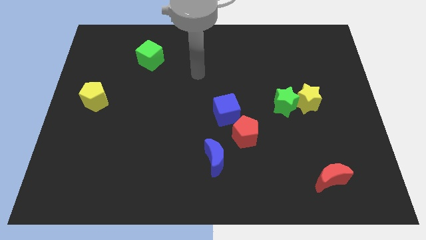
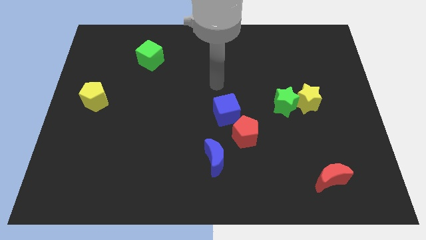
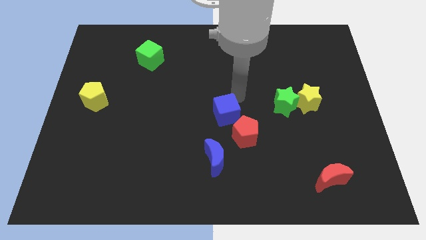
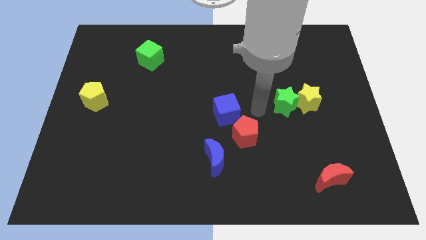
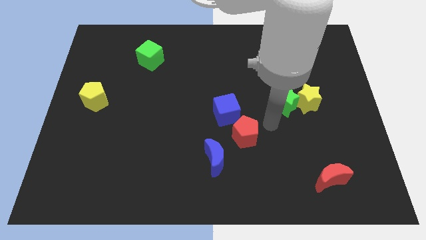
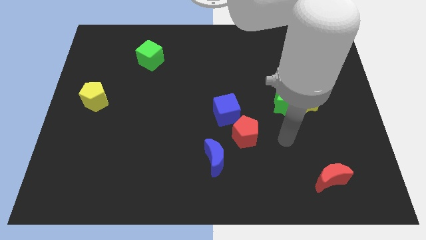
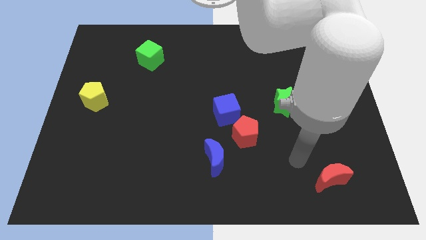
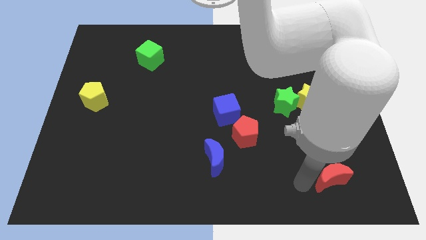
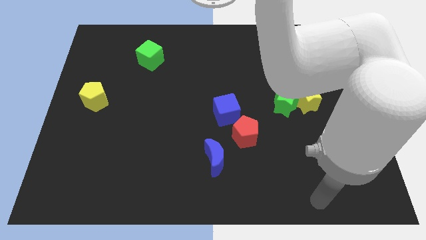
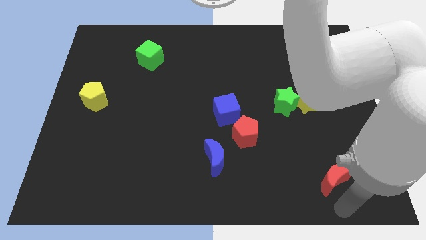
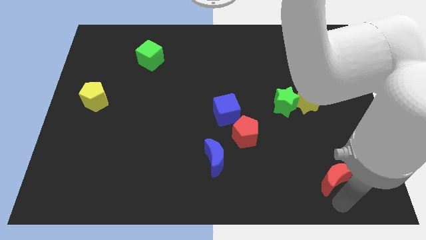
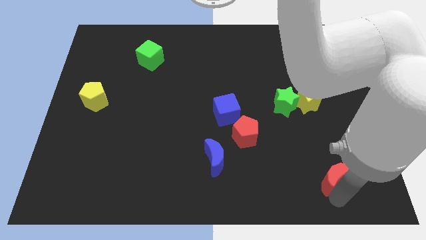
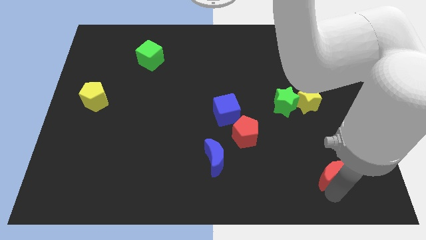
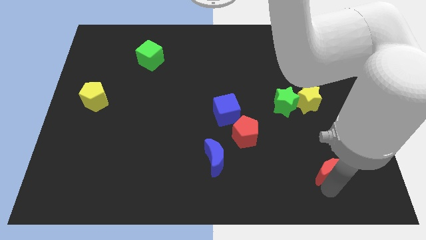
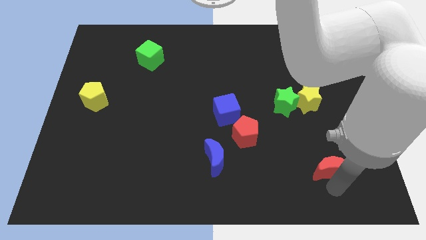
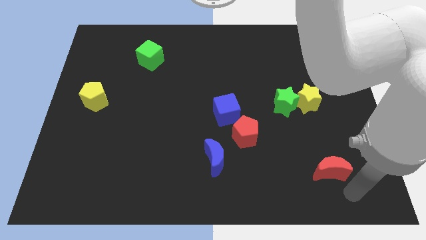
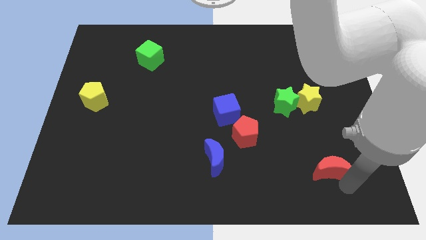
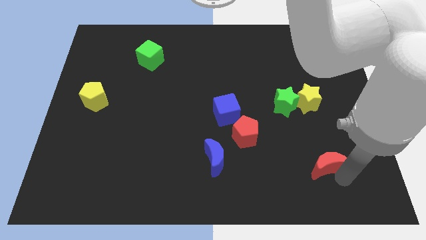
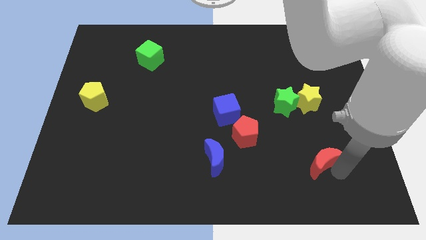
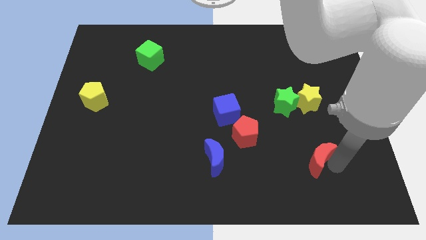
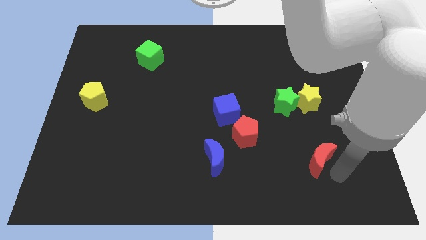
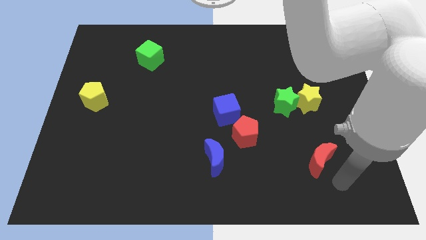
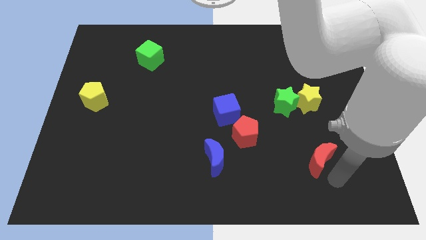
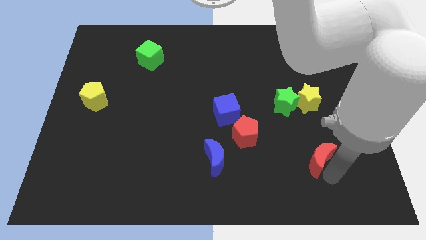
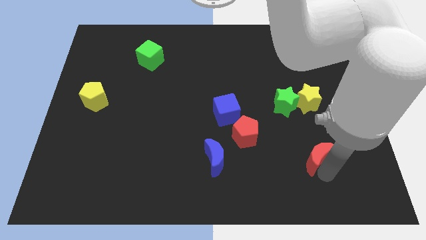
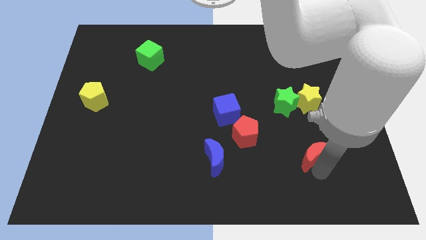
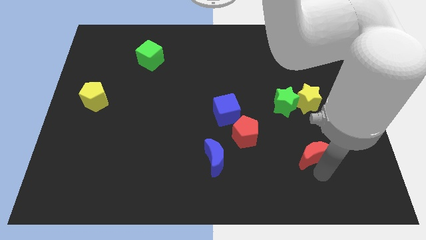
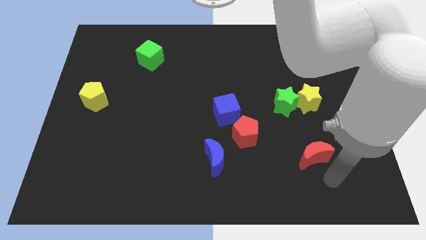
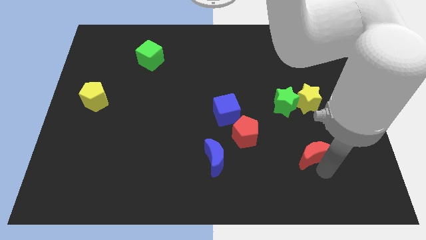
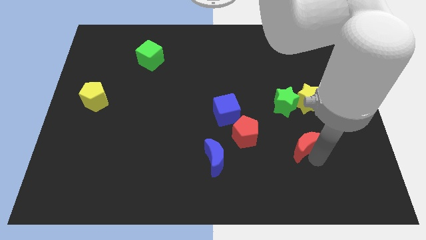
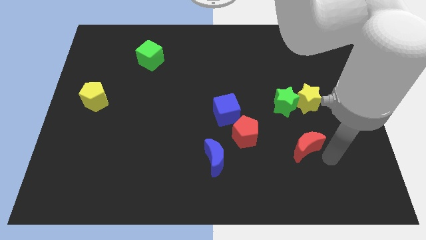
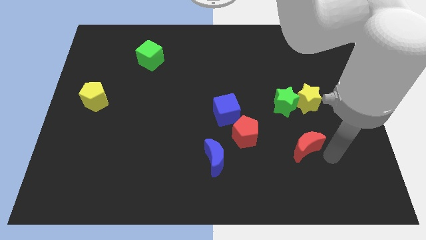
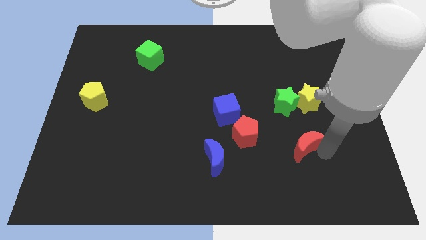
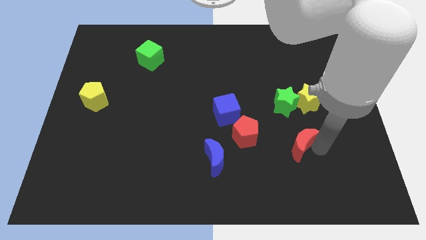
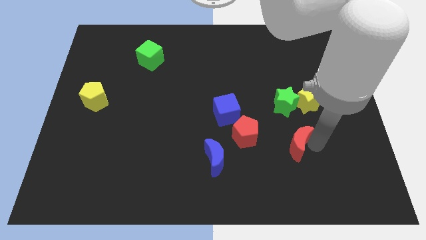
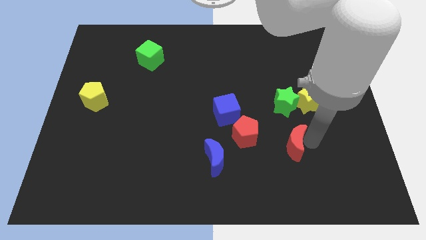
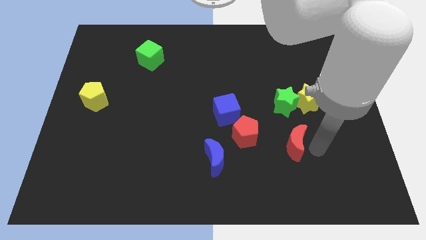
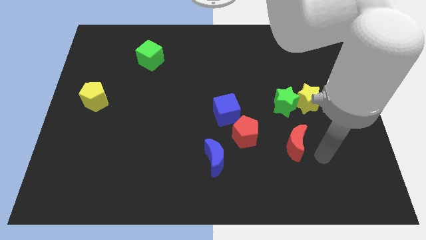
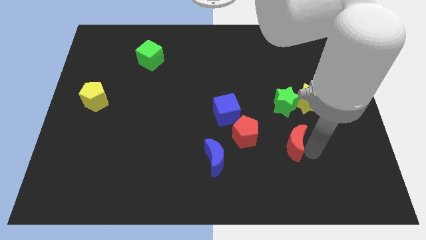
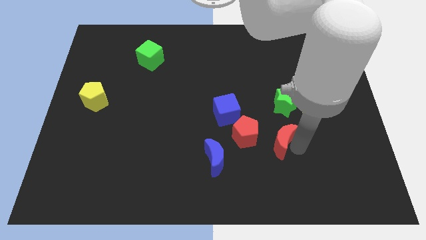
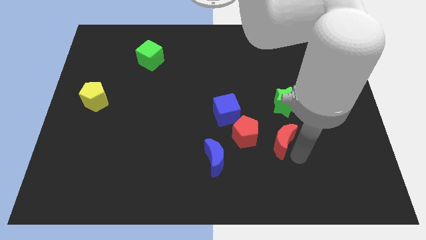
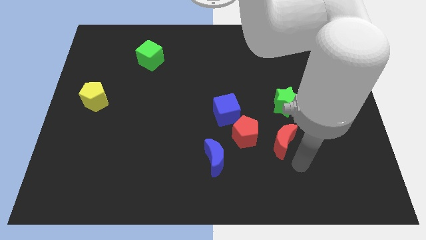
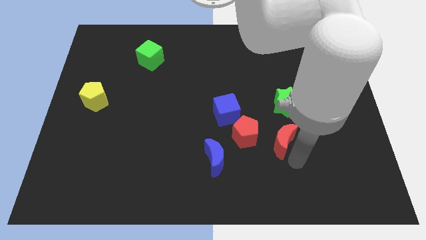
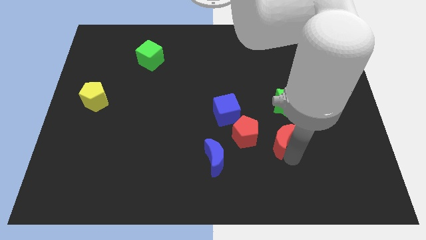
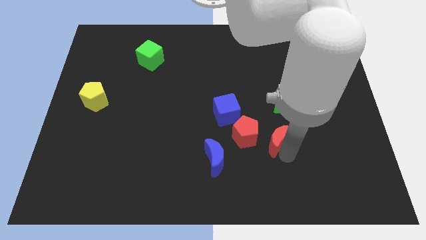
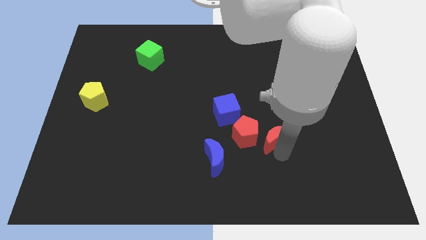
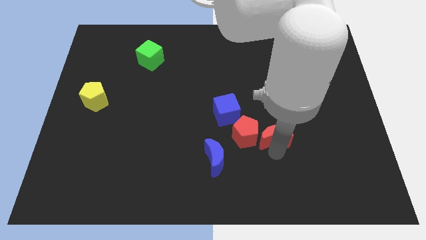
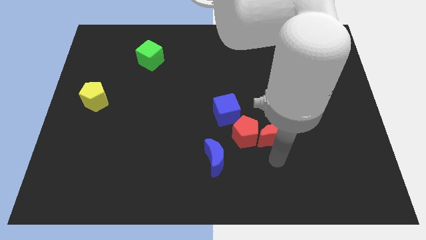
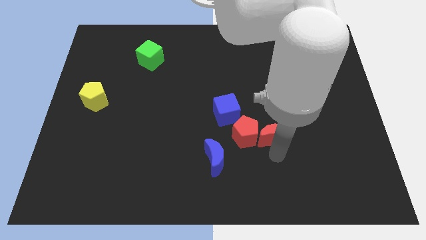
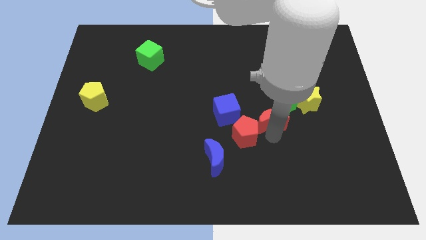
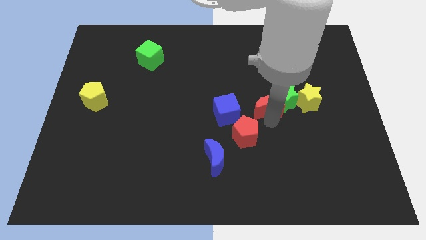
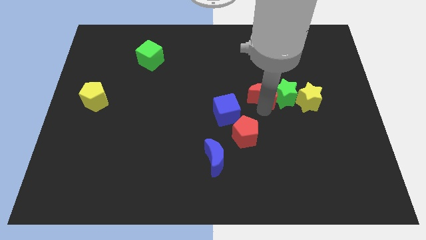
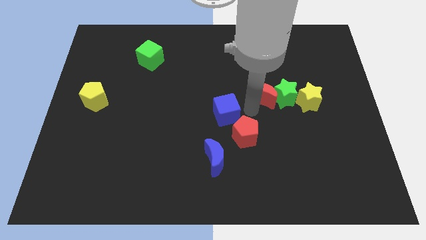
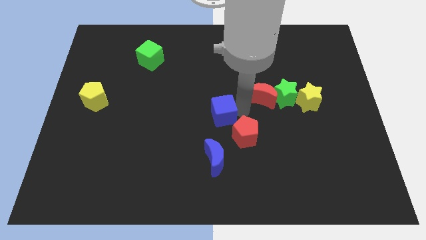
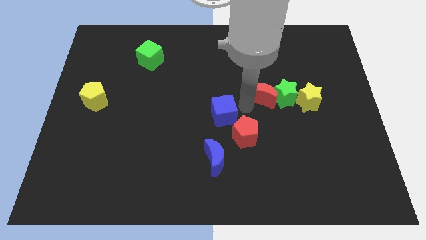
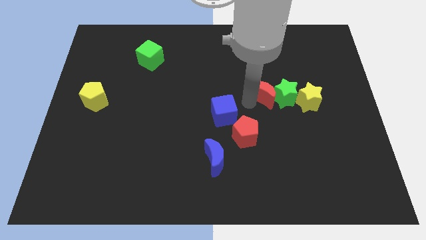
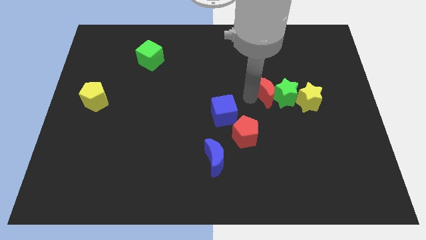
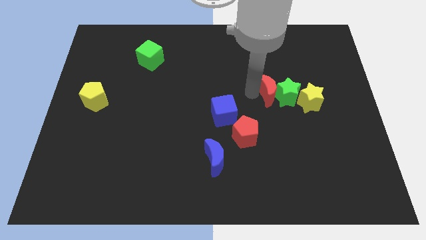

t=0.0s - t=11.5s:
put the red moon to the top left of the yellow star

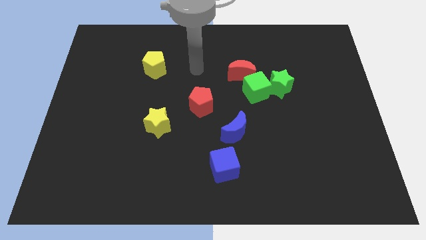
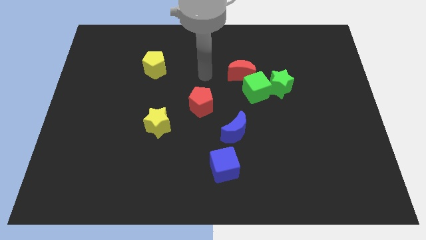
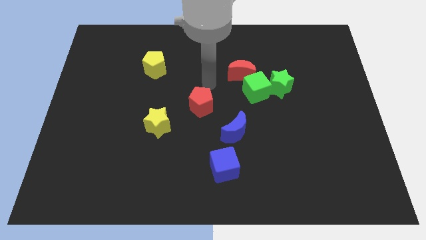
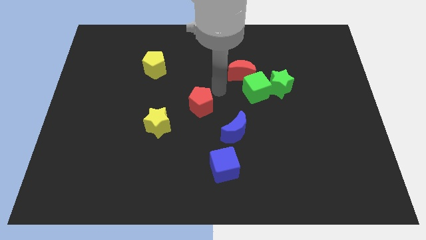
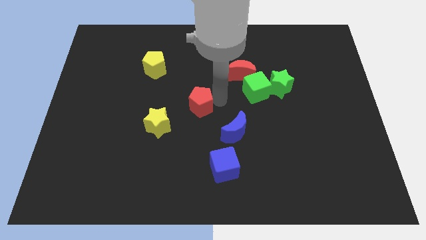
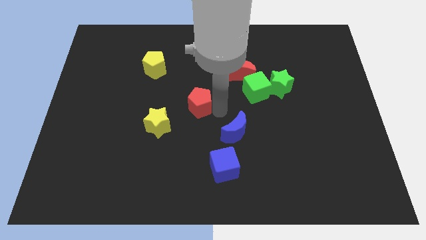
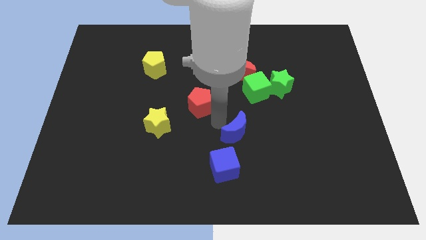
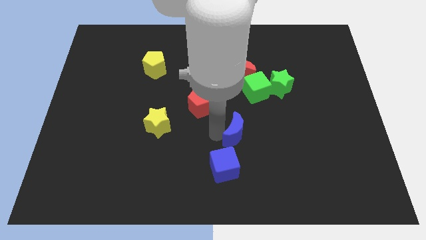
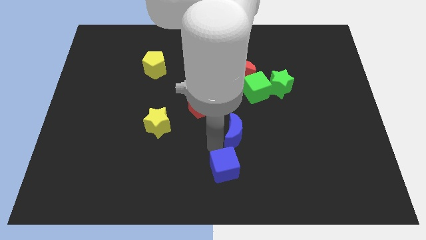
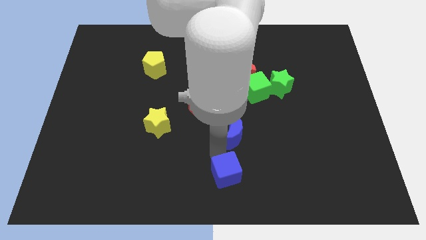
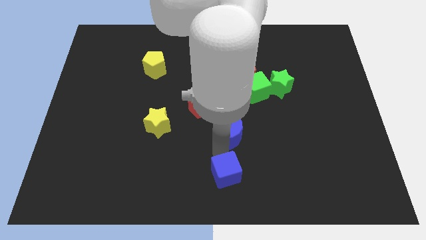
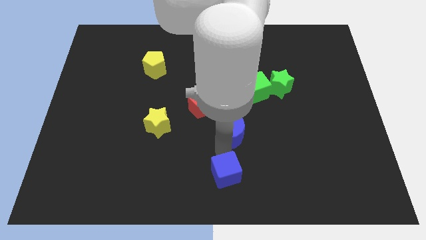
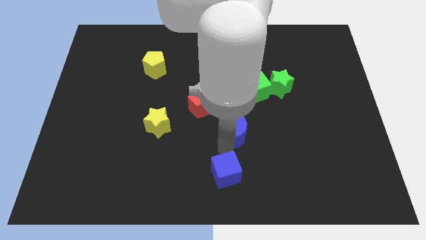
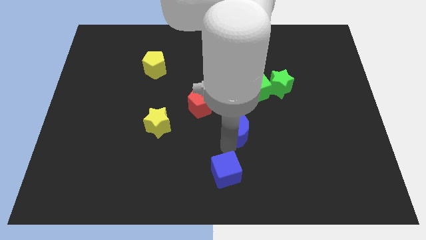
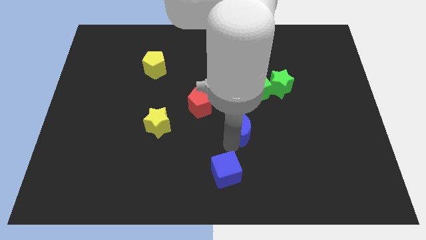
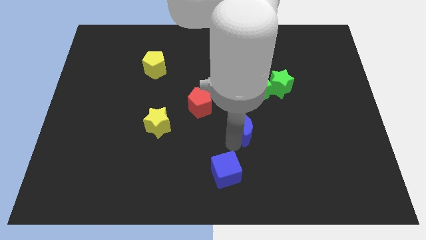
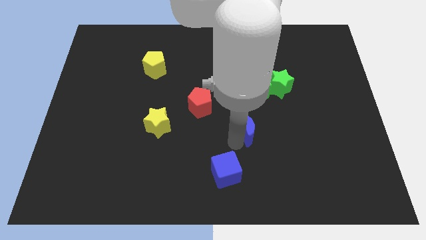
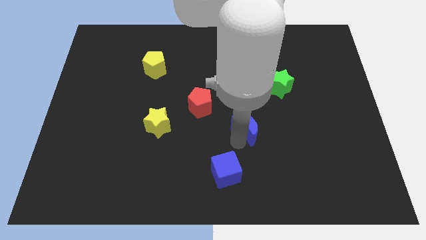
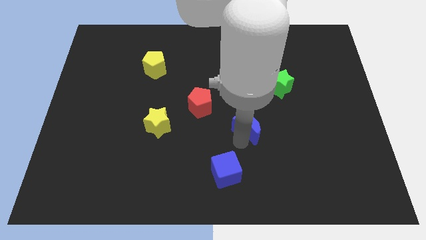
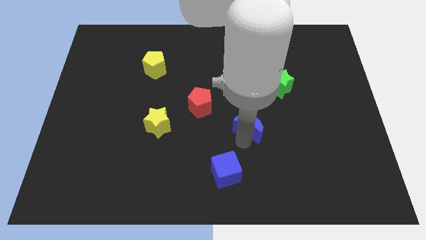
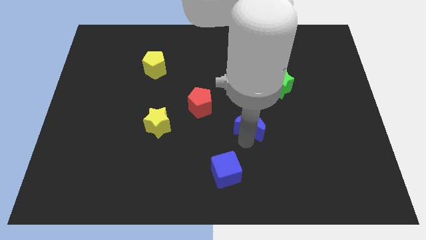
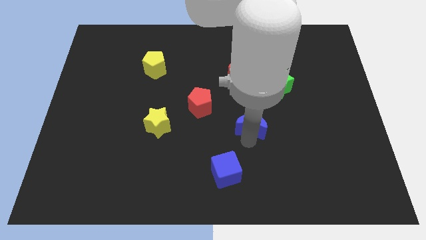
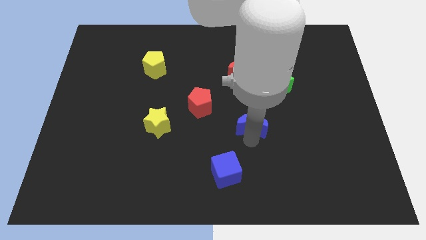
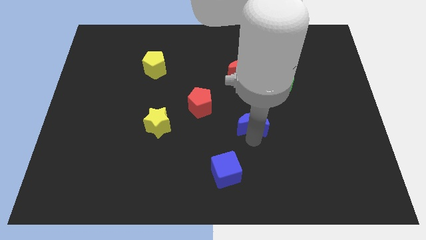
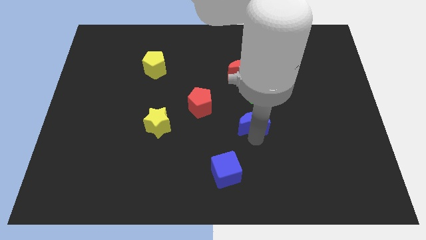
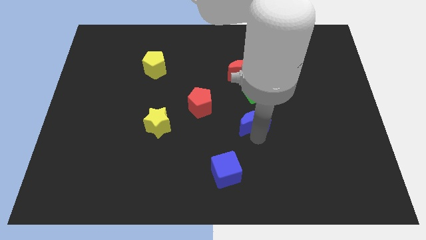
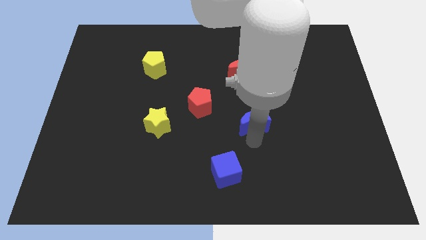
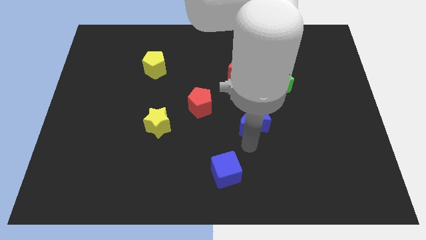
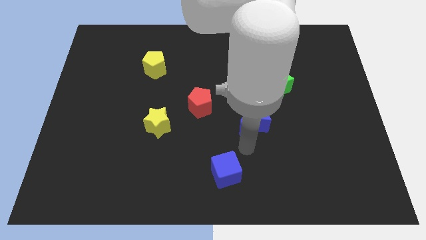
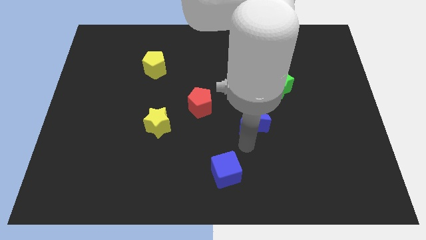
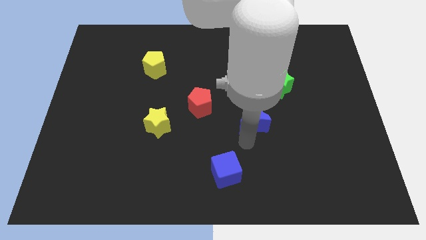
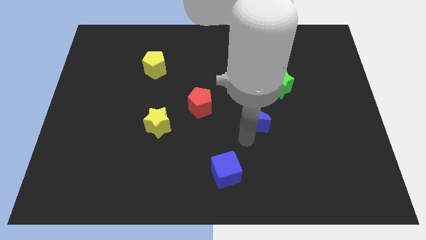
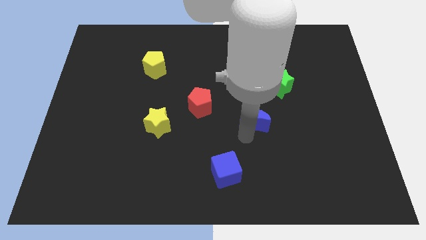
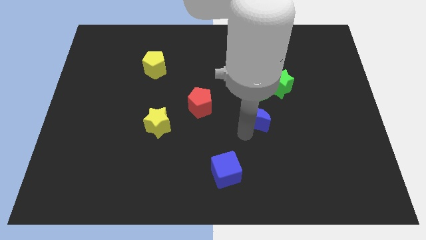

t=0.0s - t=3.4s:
put the blue moon diagonally down and to the left of the green star
